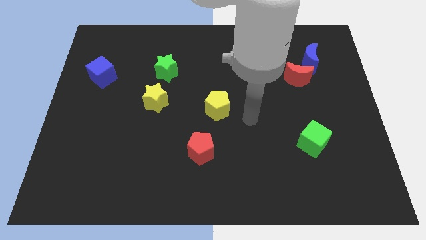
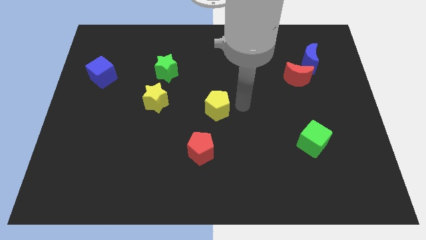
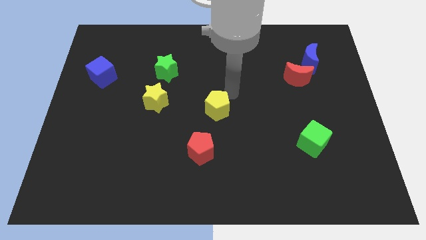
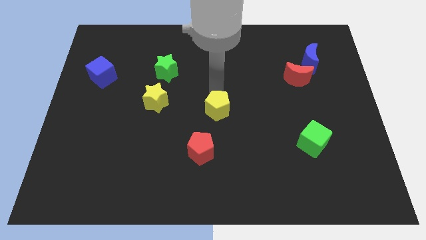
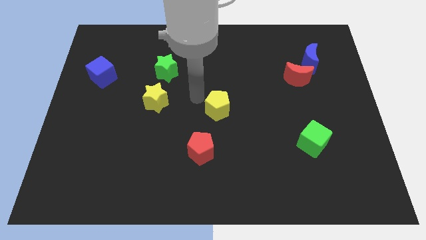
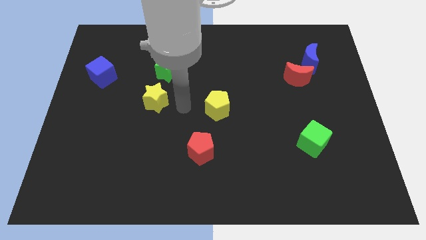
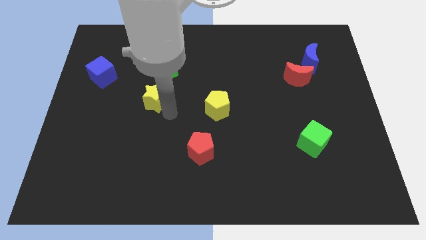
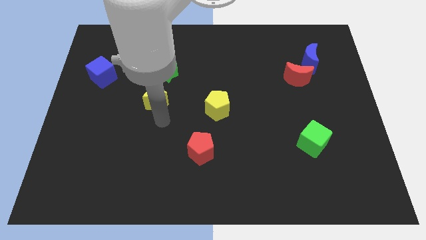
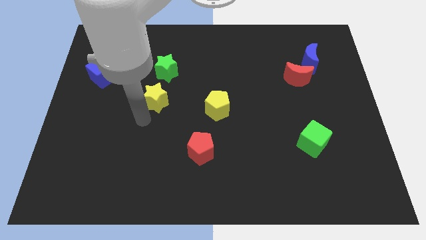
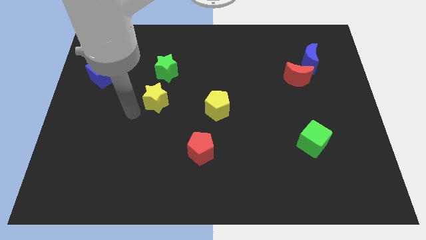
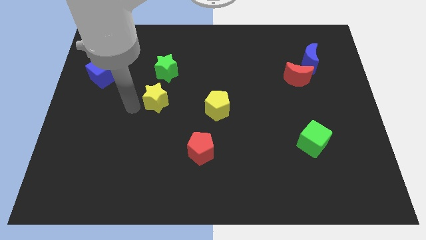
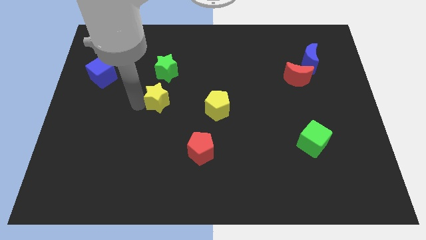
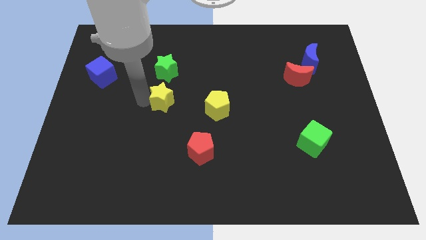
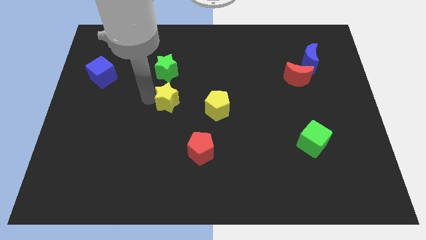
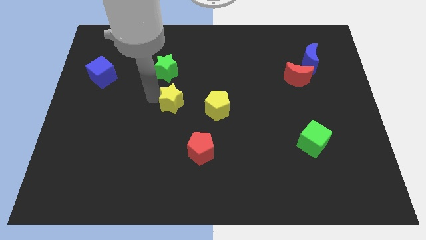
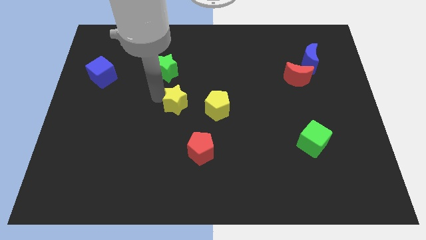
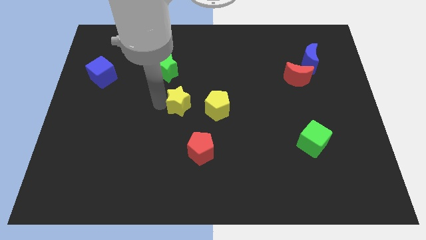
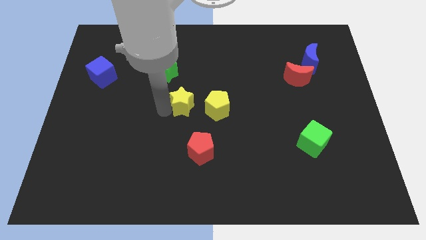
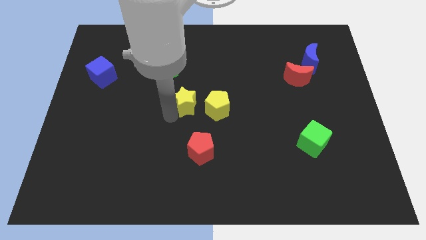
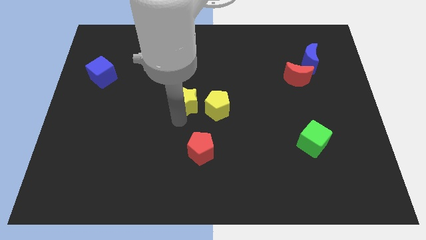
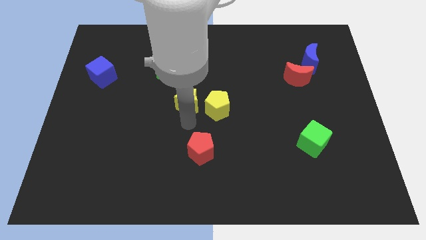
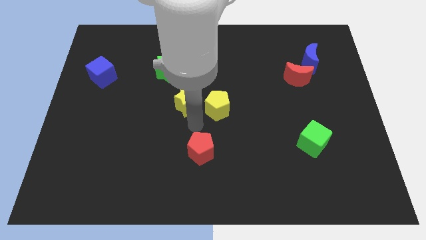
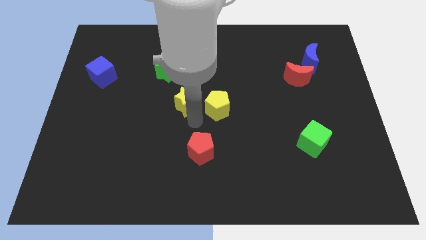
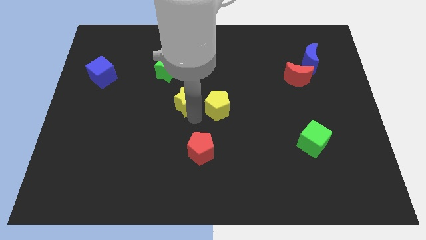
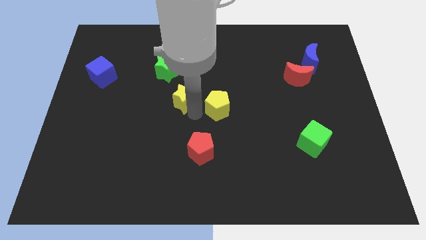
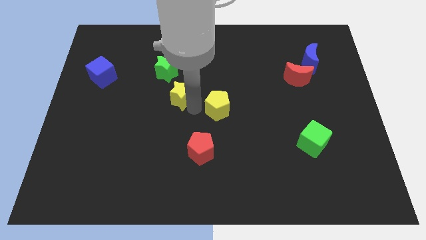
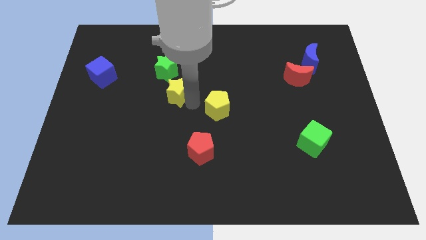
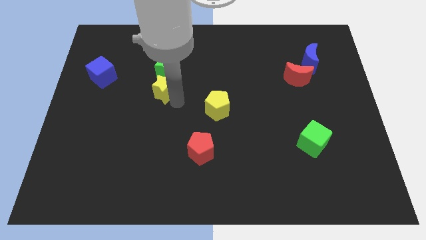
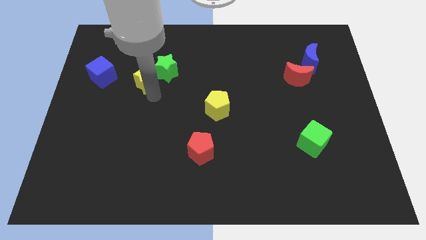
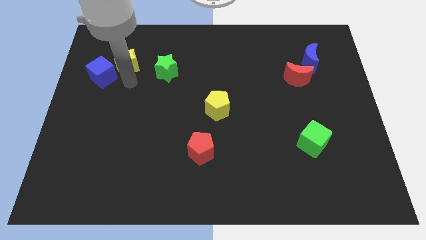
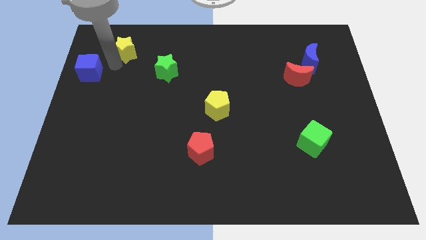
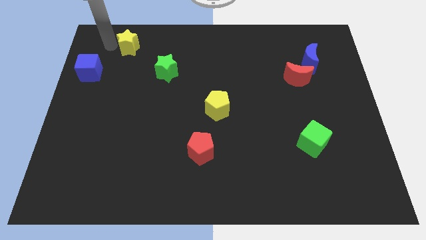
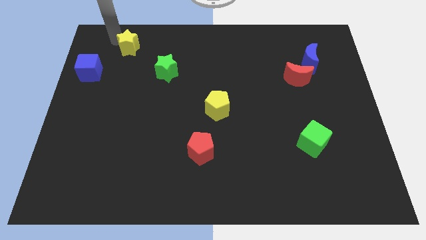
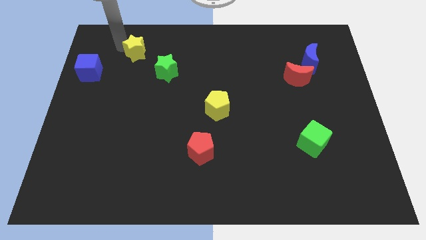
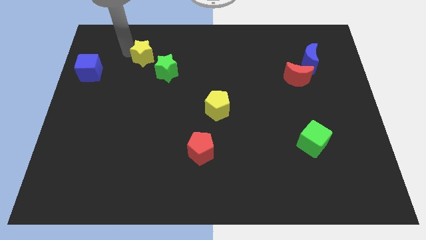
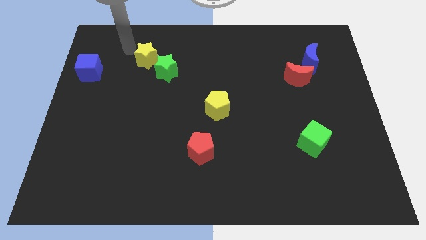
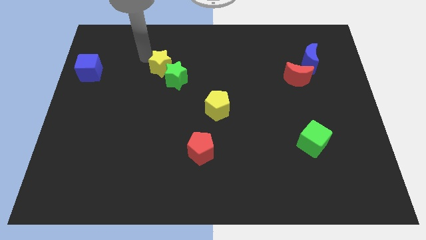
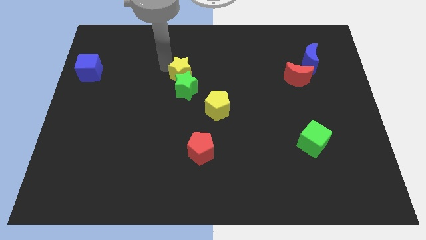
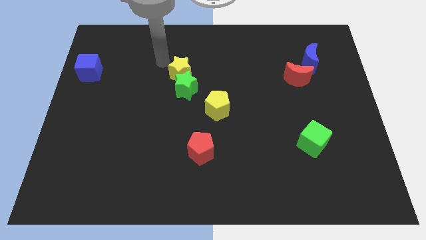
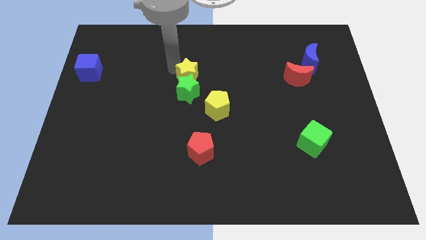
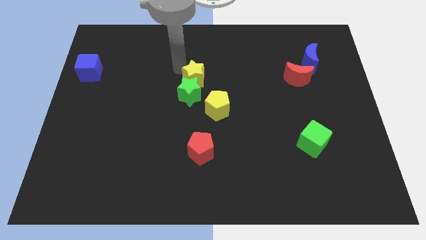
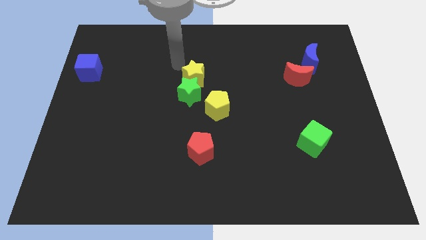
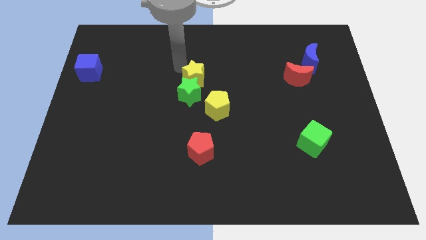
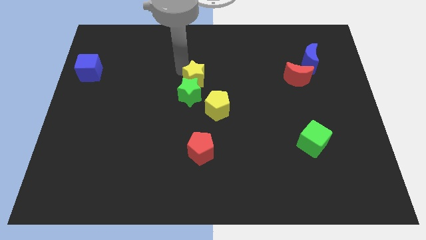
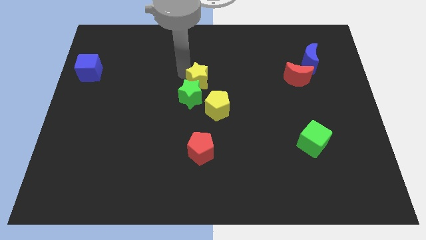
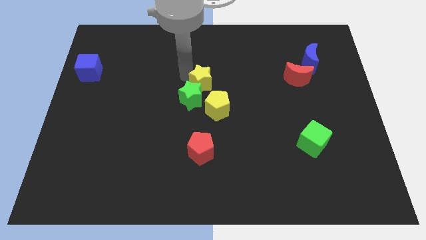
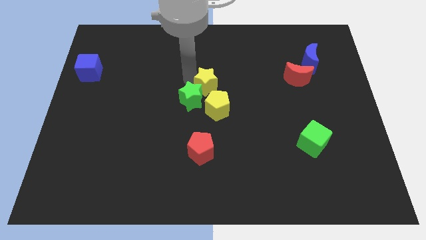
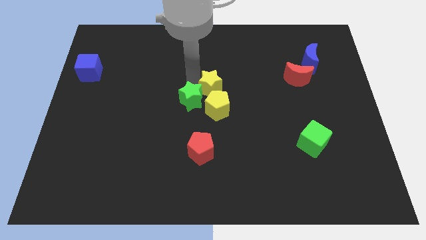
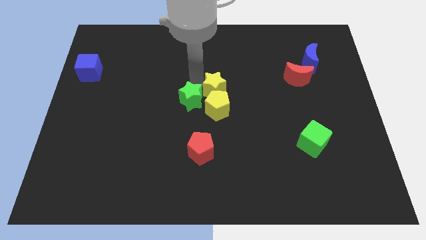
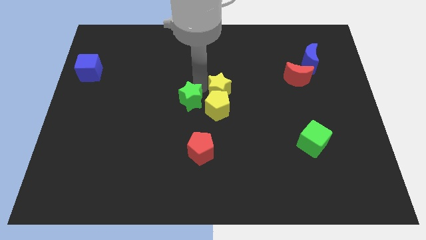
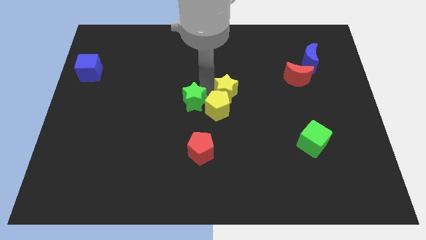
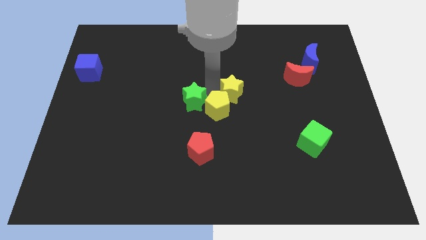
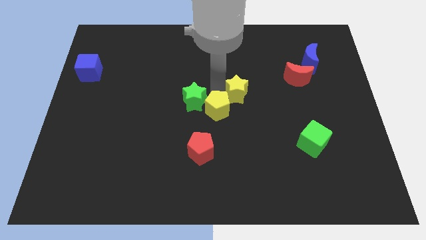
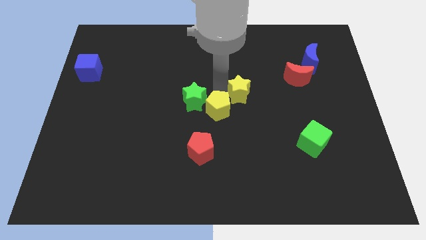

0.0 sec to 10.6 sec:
slide the yellow star right

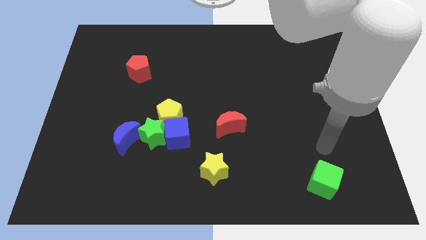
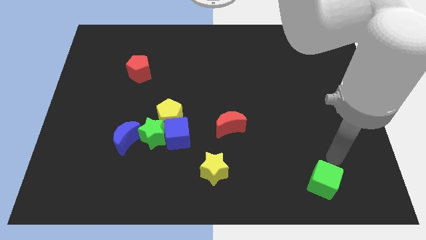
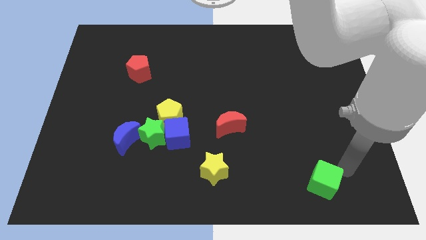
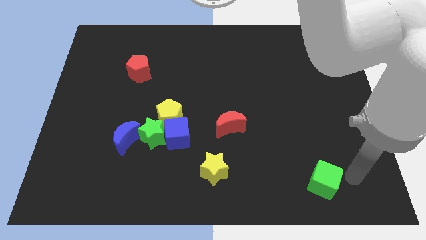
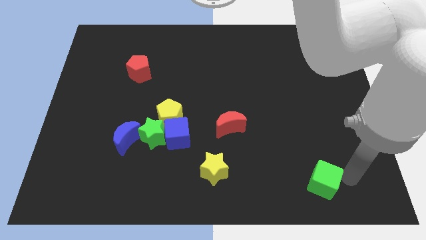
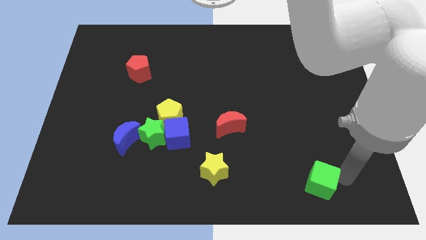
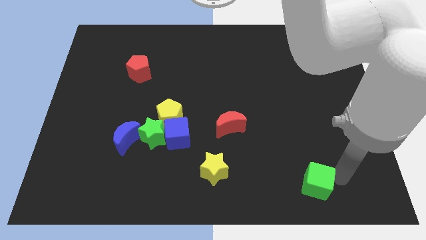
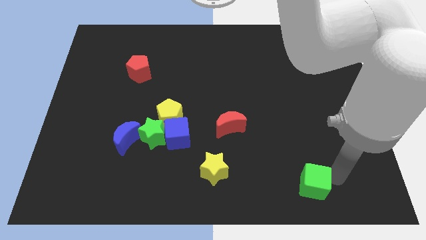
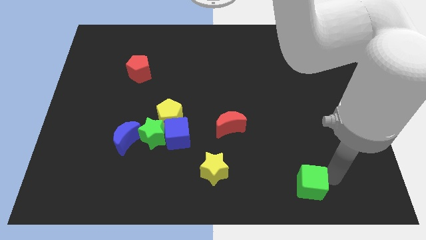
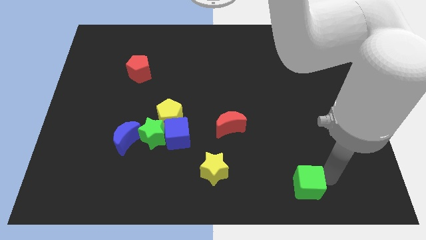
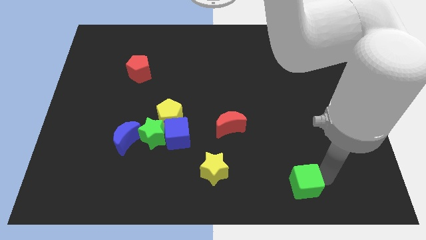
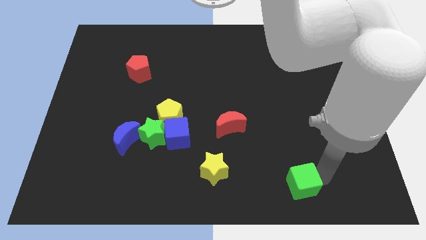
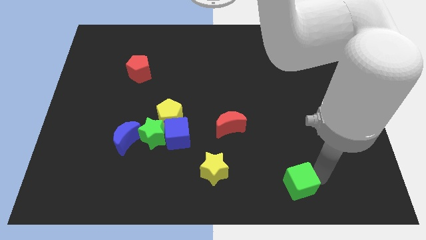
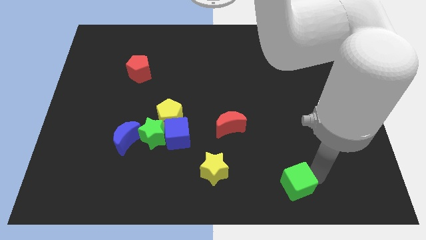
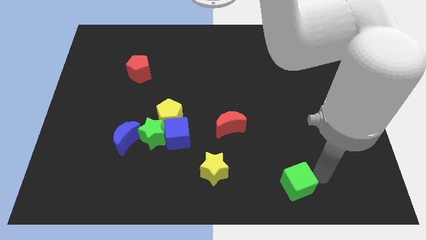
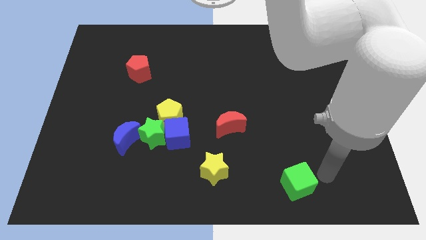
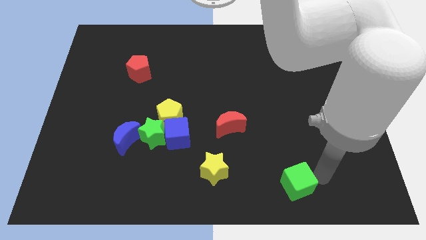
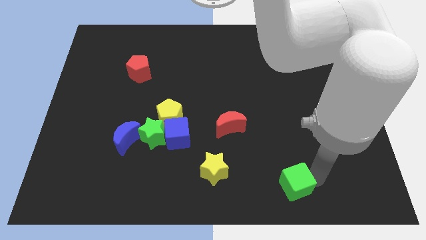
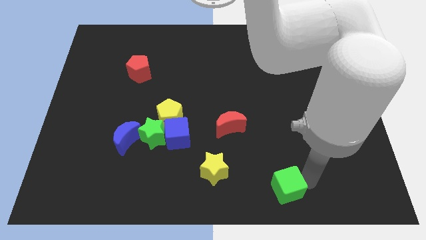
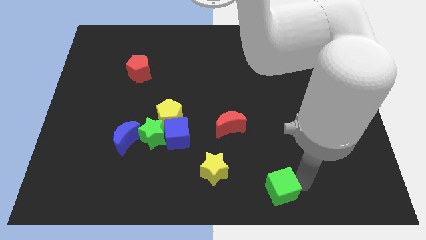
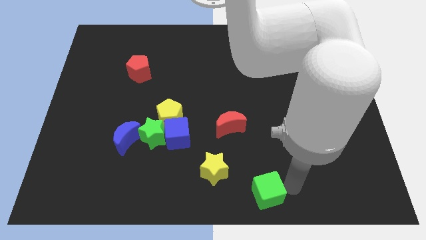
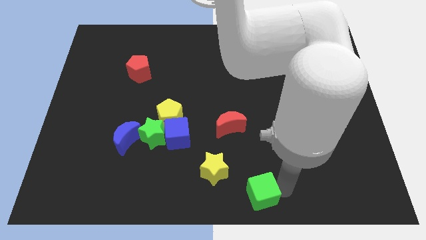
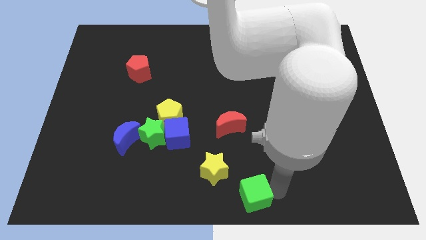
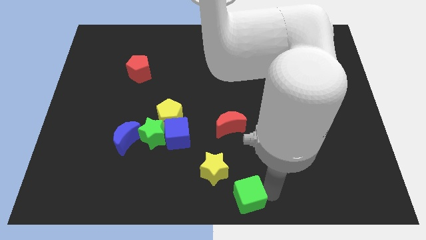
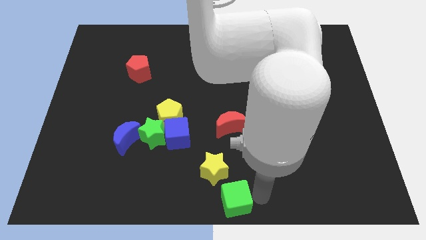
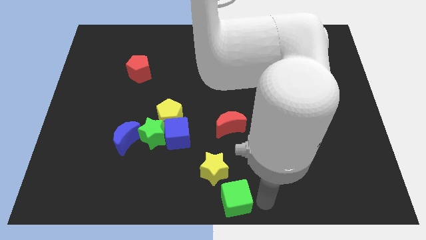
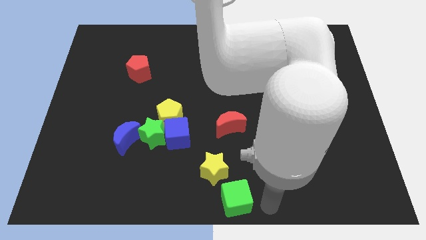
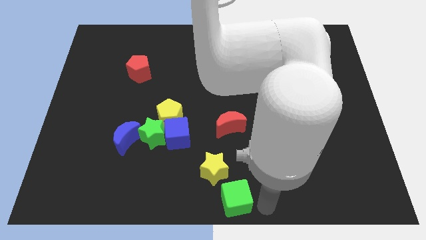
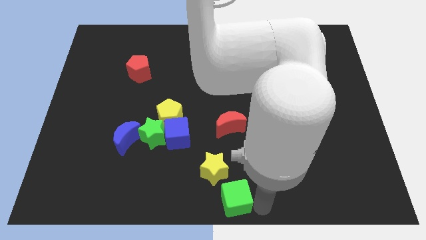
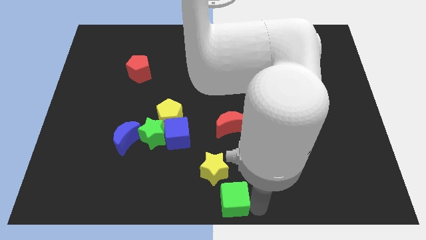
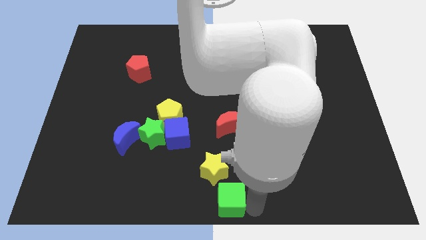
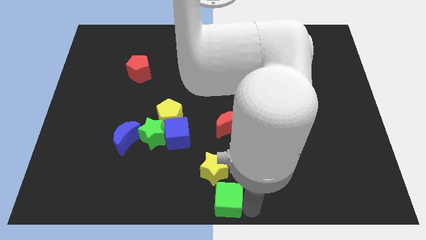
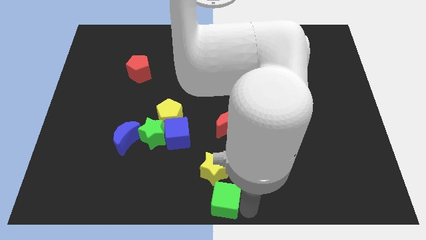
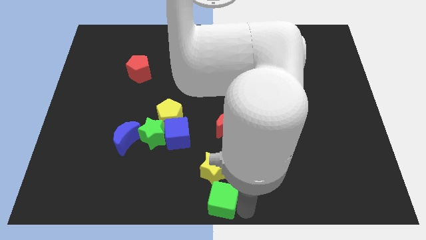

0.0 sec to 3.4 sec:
slide the green cube left
